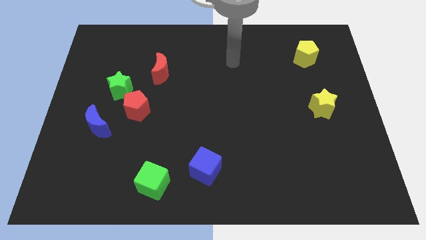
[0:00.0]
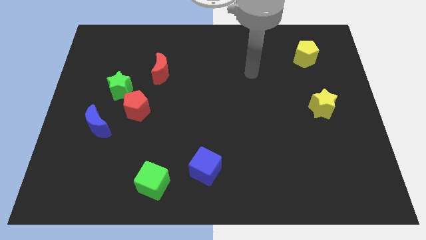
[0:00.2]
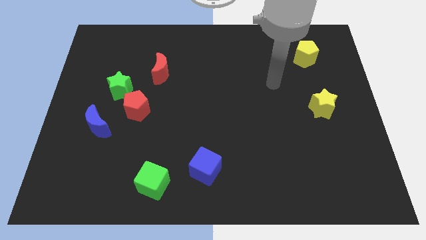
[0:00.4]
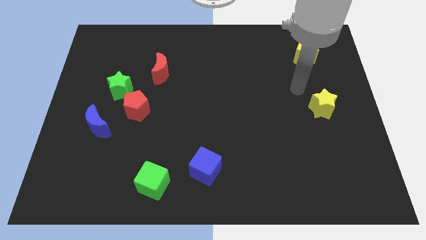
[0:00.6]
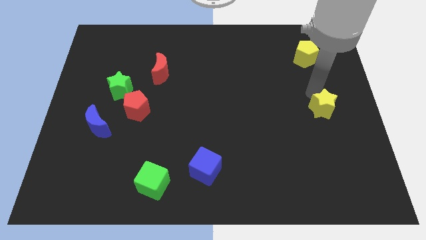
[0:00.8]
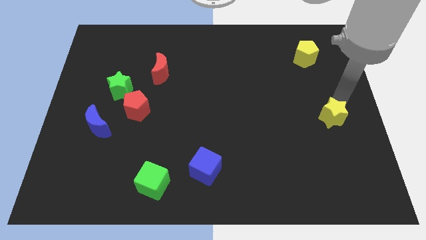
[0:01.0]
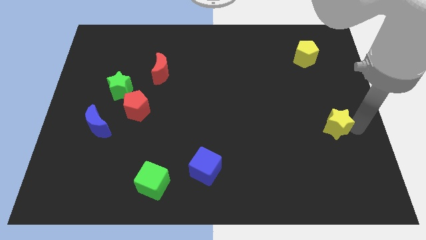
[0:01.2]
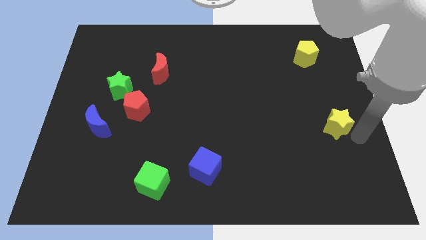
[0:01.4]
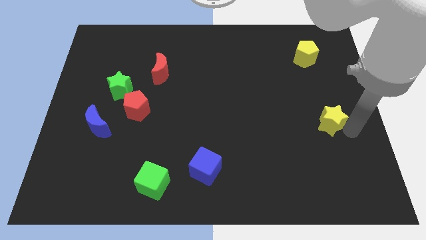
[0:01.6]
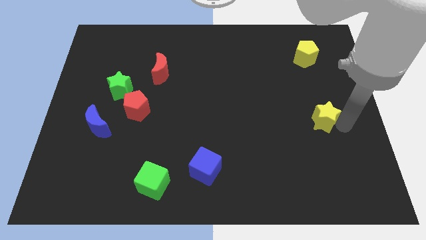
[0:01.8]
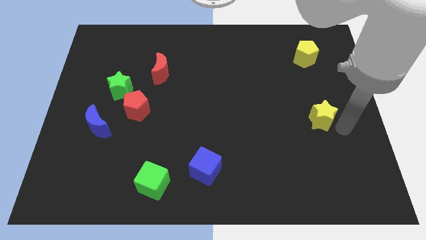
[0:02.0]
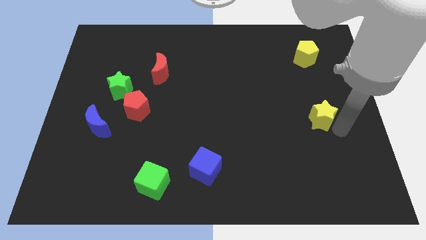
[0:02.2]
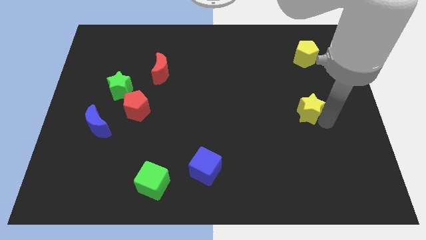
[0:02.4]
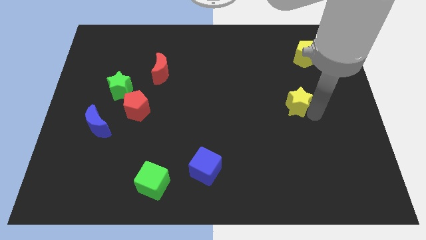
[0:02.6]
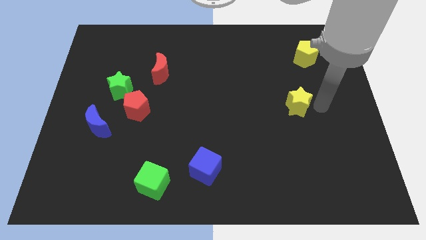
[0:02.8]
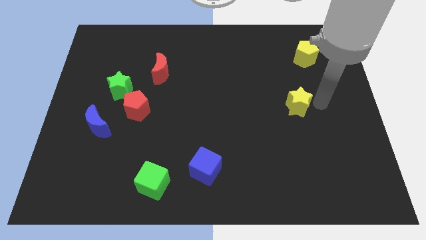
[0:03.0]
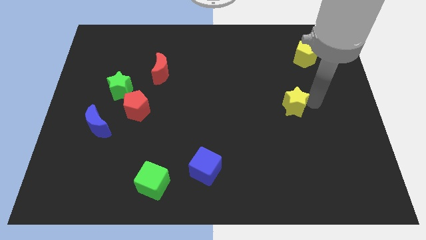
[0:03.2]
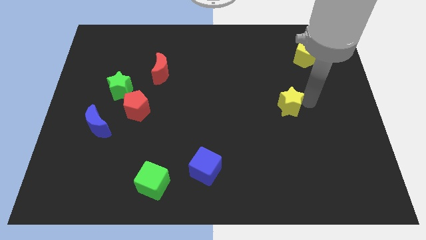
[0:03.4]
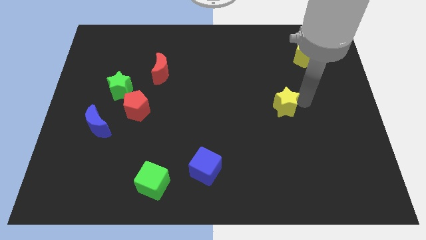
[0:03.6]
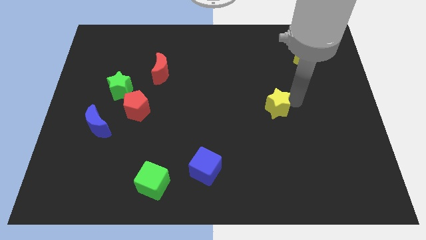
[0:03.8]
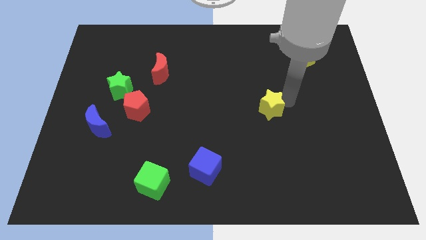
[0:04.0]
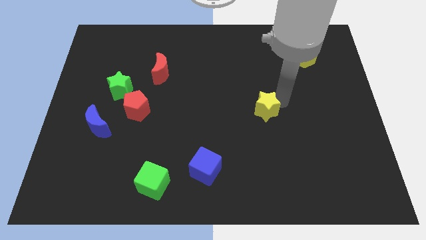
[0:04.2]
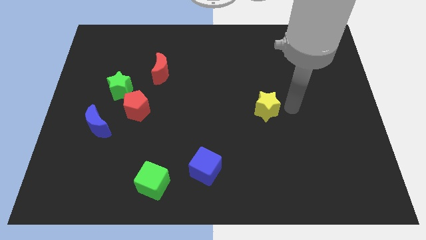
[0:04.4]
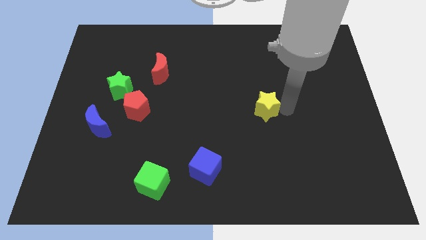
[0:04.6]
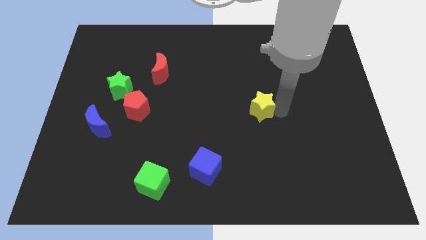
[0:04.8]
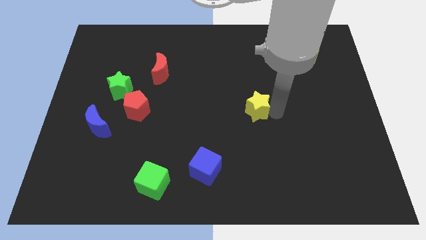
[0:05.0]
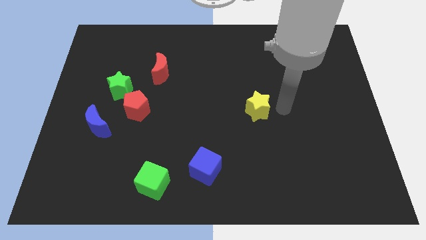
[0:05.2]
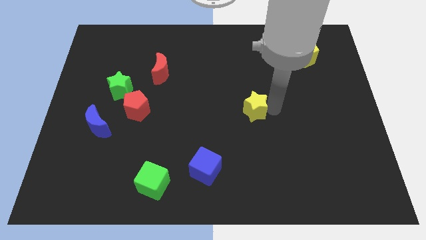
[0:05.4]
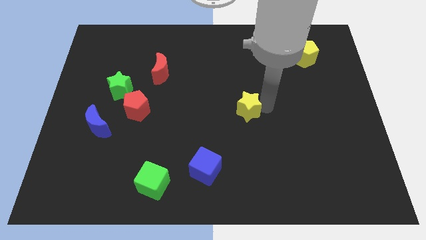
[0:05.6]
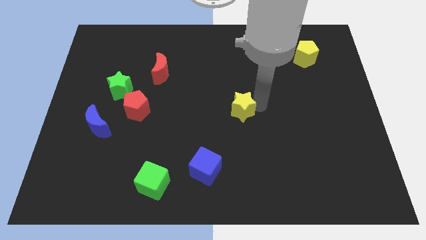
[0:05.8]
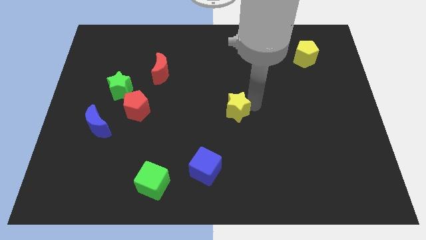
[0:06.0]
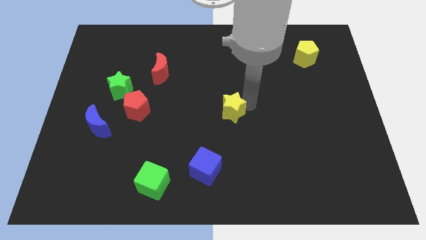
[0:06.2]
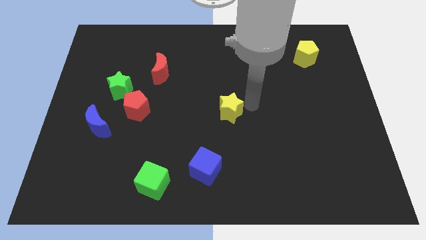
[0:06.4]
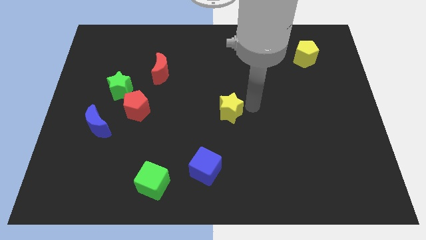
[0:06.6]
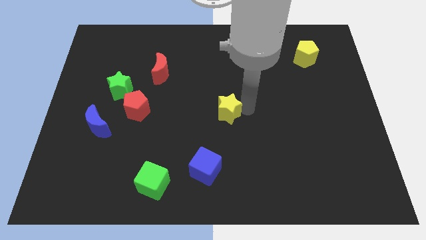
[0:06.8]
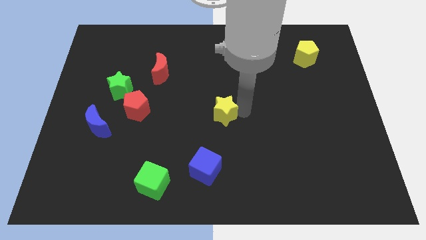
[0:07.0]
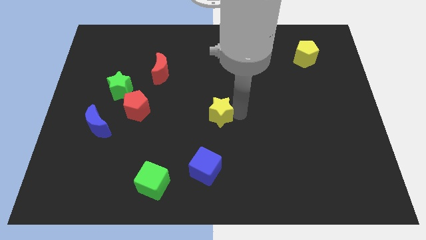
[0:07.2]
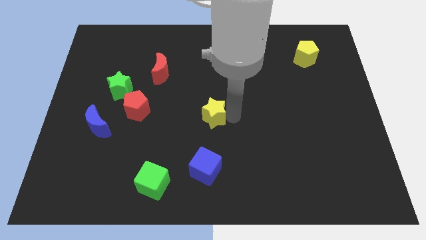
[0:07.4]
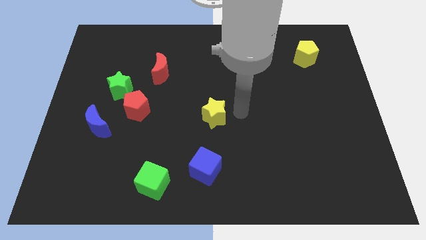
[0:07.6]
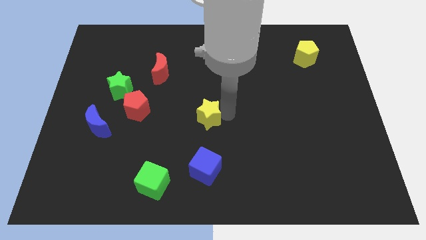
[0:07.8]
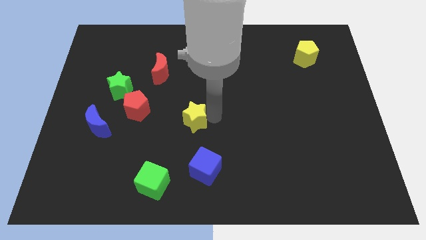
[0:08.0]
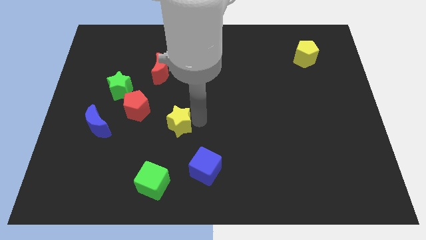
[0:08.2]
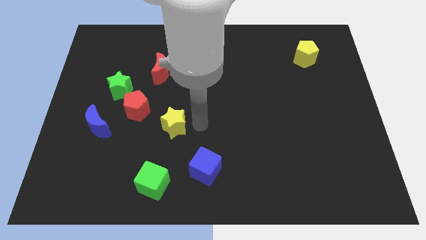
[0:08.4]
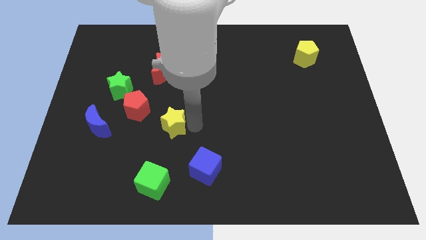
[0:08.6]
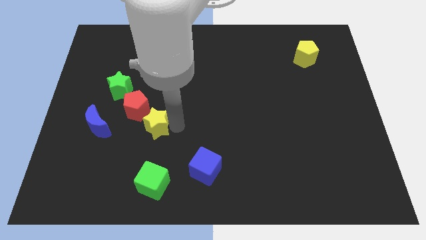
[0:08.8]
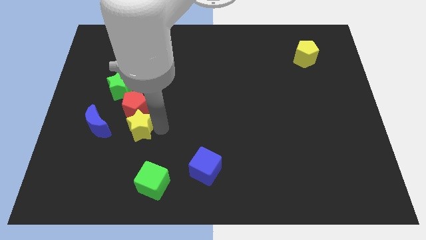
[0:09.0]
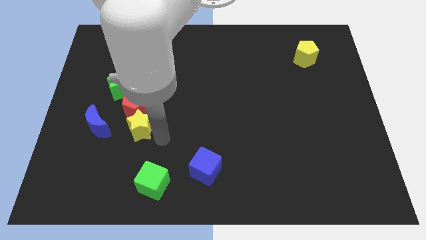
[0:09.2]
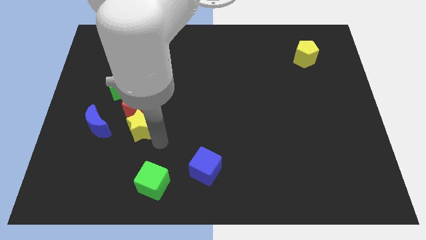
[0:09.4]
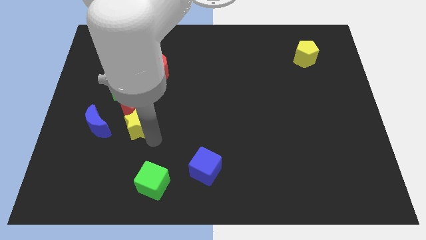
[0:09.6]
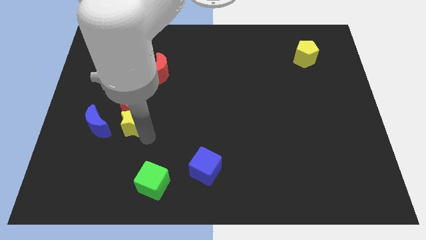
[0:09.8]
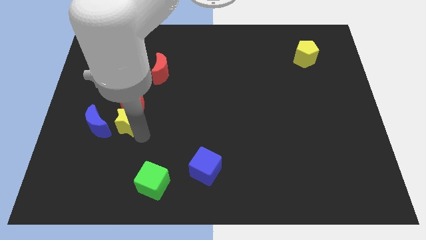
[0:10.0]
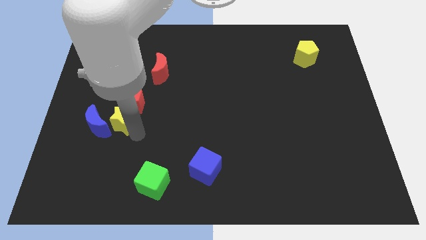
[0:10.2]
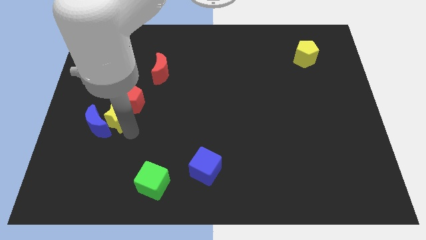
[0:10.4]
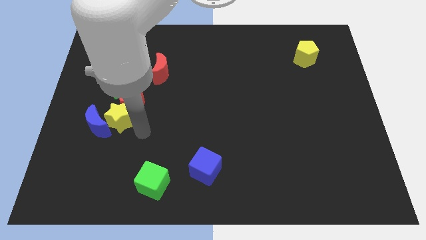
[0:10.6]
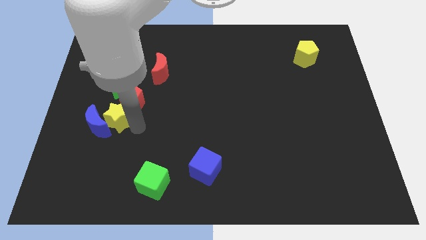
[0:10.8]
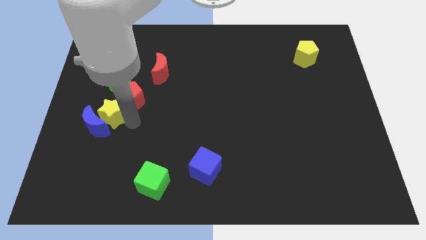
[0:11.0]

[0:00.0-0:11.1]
put the yellow star to the left of the red pentagon

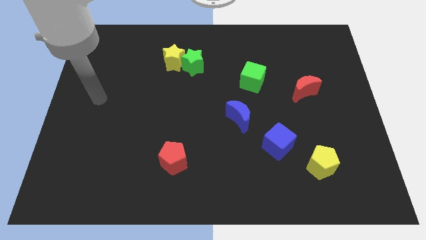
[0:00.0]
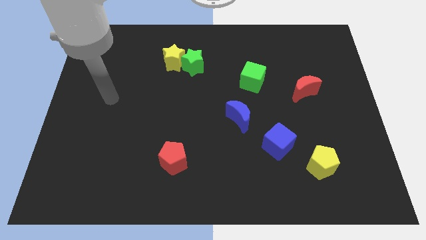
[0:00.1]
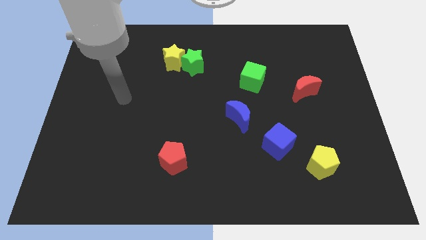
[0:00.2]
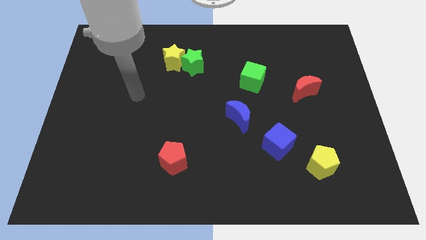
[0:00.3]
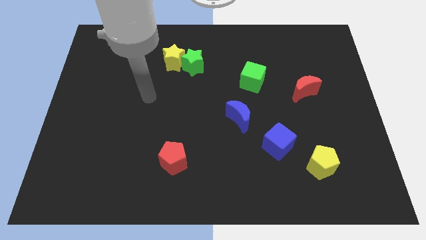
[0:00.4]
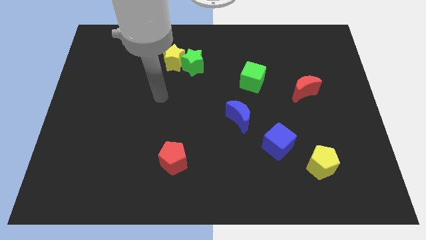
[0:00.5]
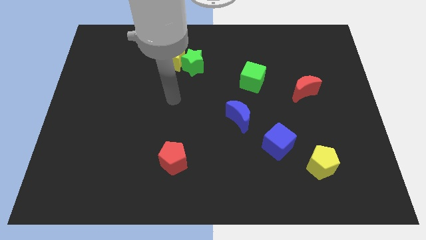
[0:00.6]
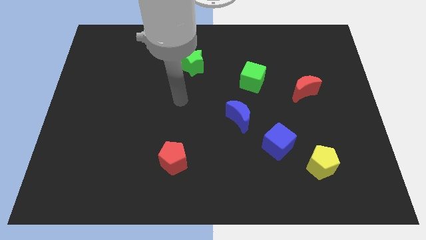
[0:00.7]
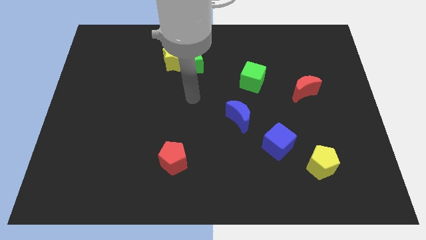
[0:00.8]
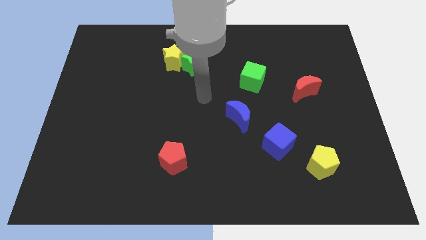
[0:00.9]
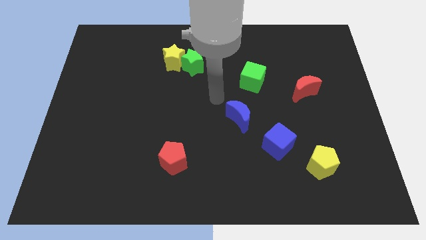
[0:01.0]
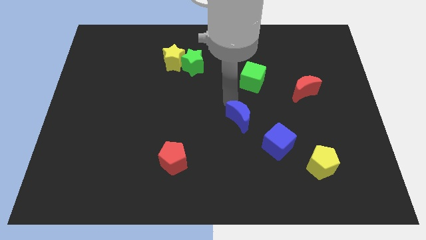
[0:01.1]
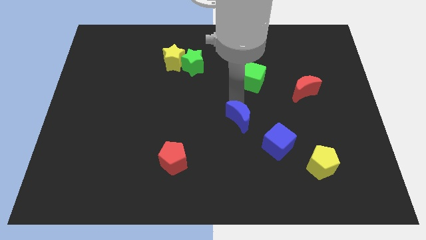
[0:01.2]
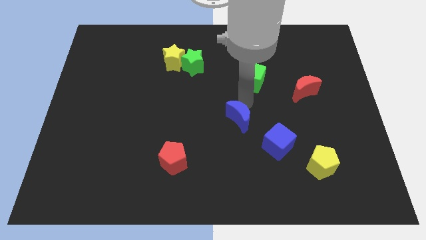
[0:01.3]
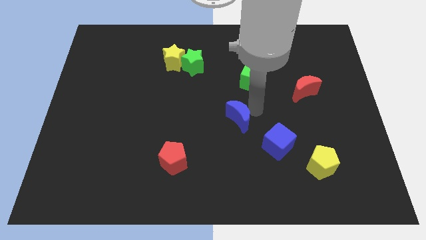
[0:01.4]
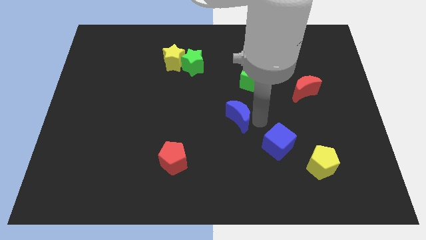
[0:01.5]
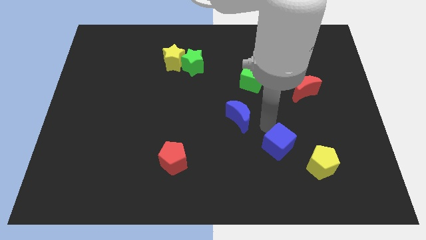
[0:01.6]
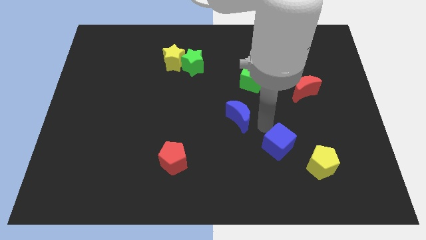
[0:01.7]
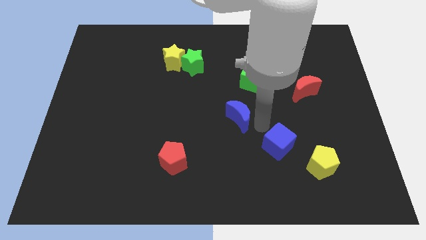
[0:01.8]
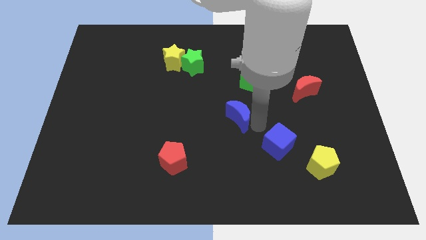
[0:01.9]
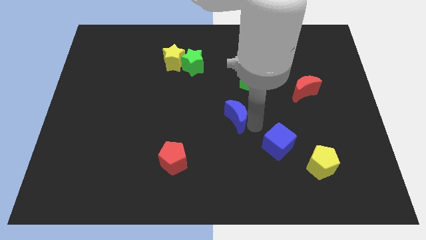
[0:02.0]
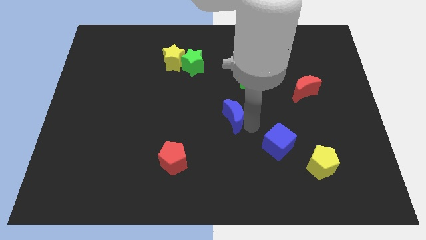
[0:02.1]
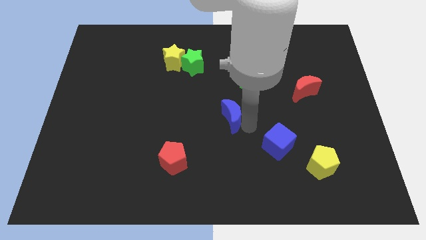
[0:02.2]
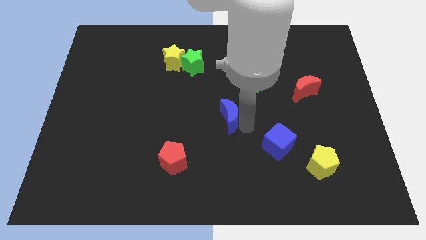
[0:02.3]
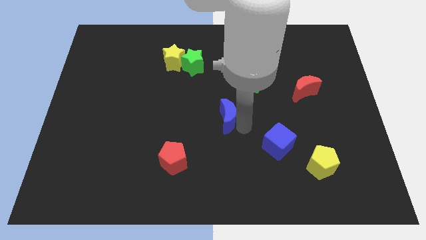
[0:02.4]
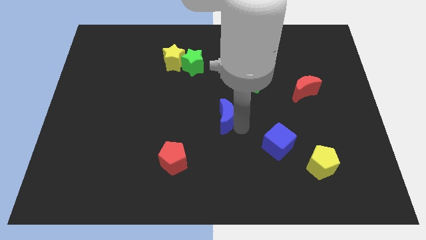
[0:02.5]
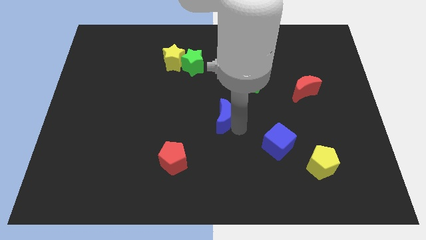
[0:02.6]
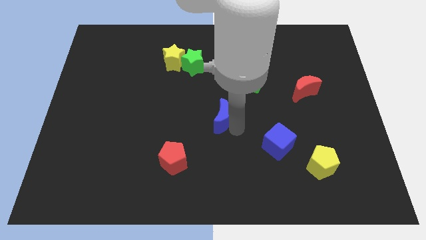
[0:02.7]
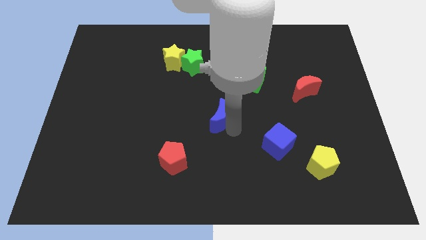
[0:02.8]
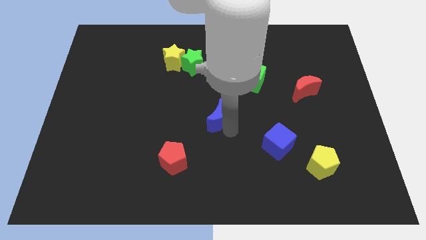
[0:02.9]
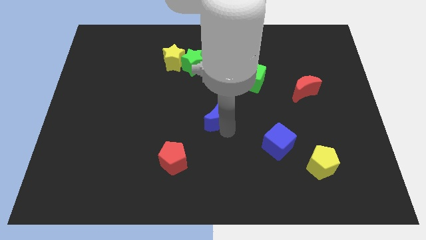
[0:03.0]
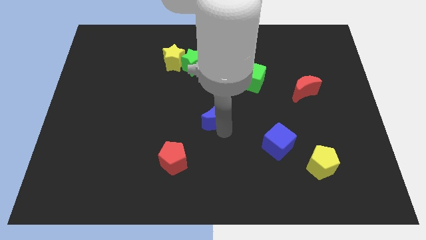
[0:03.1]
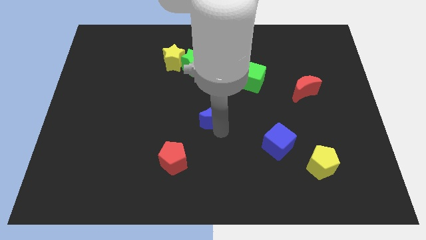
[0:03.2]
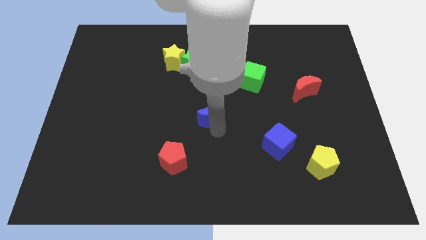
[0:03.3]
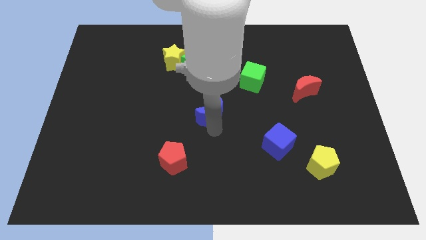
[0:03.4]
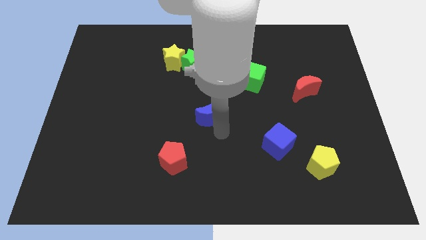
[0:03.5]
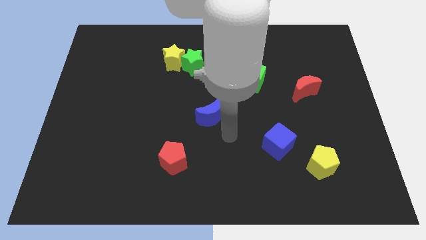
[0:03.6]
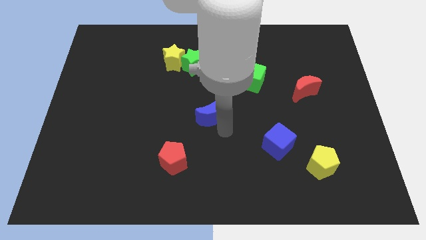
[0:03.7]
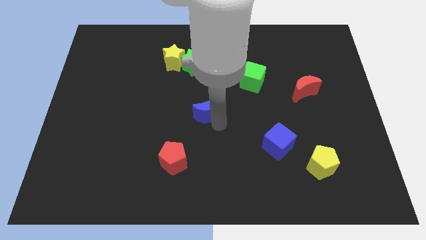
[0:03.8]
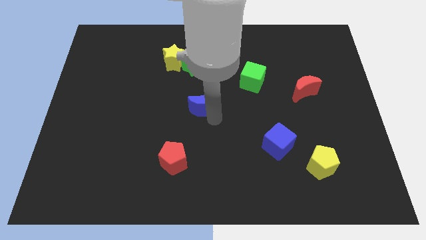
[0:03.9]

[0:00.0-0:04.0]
push the blue moon to the bottom of the green star
